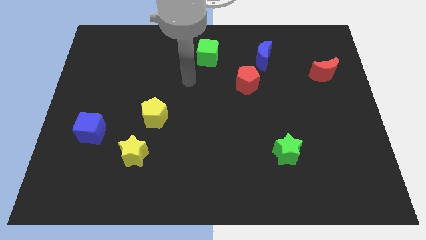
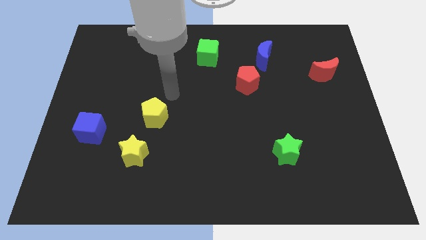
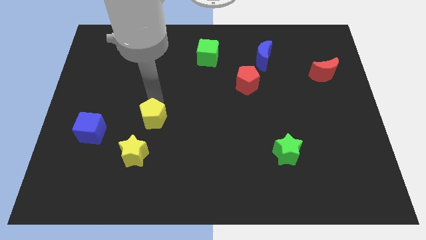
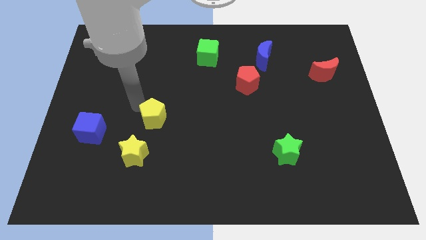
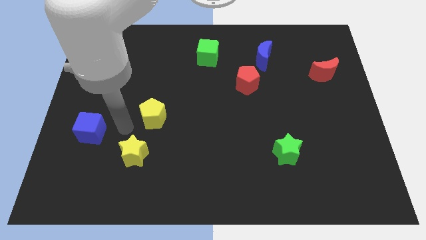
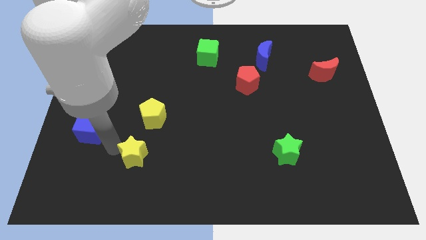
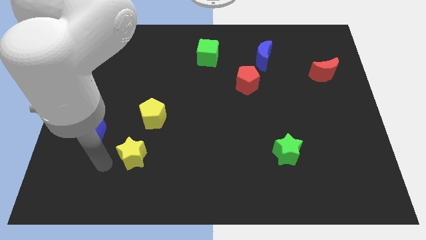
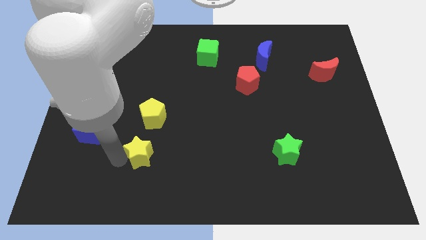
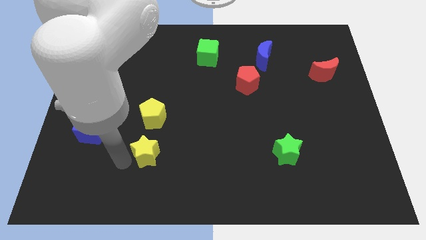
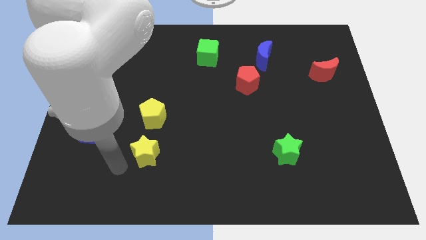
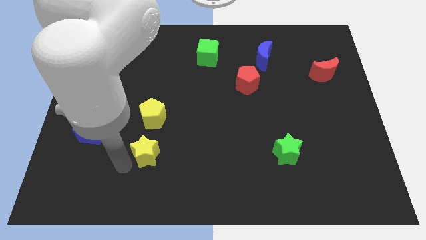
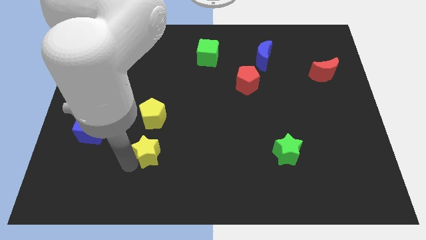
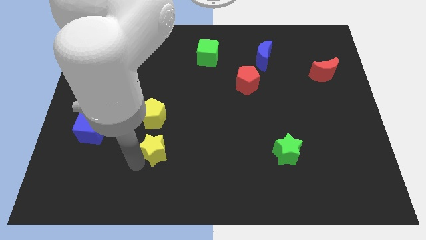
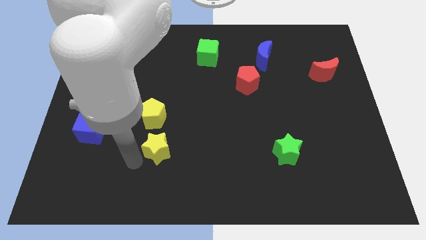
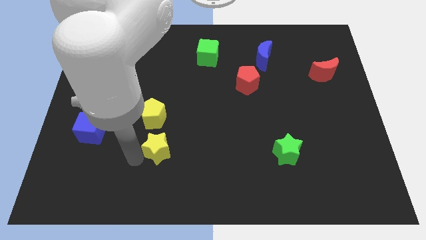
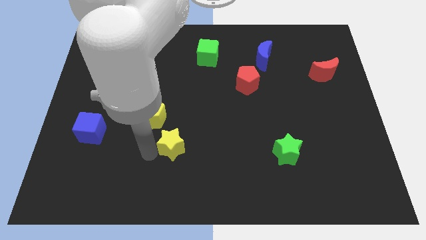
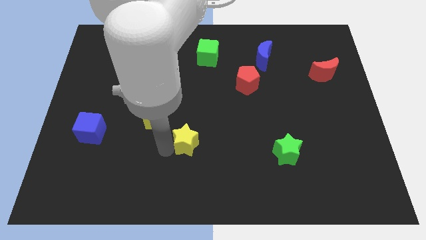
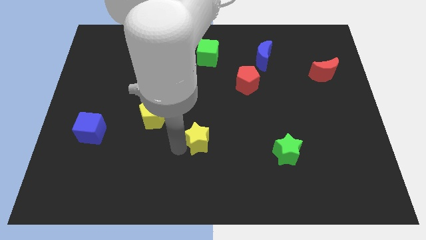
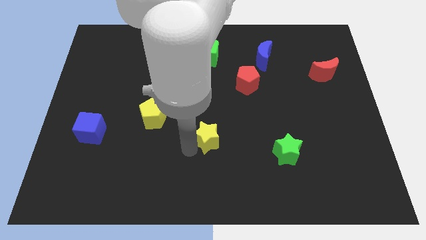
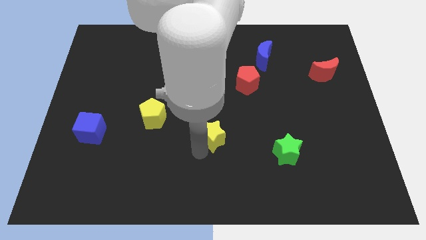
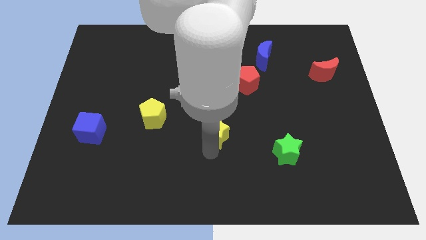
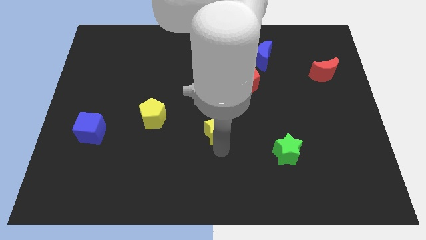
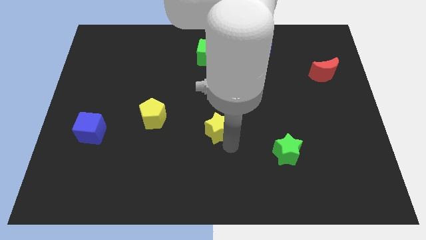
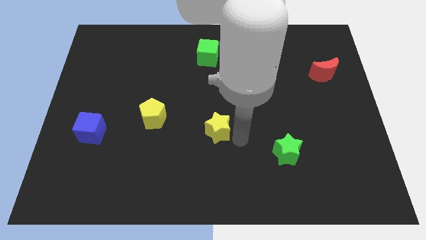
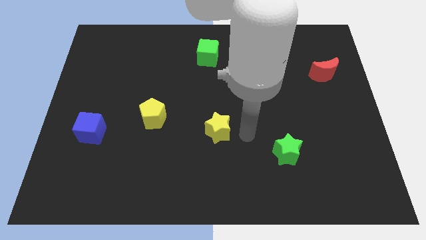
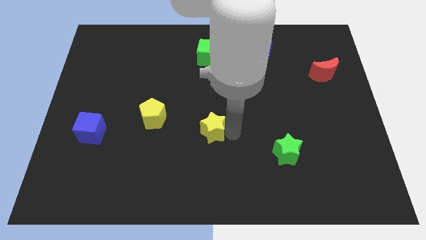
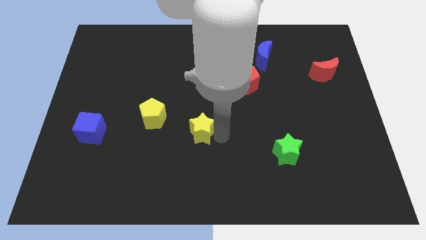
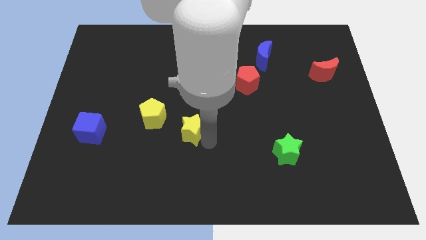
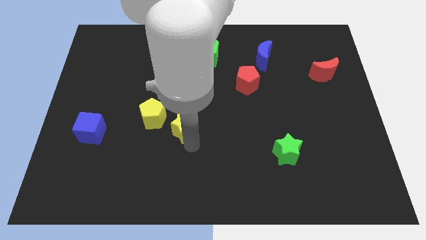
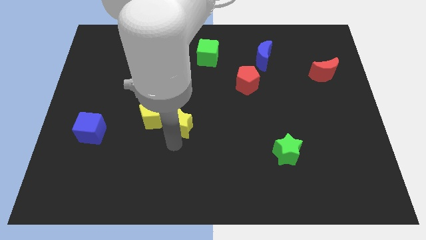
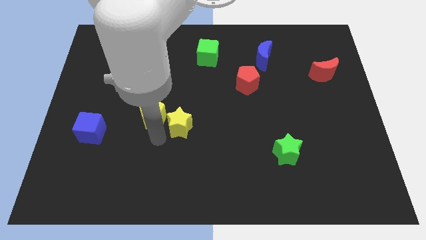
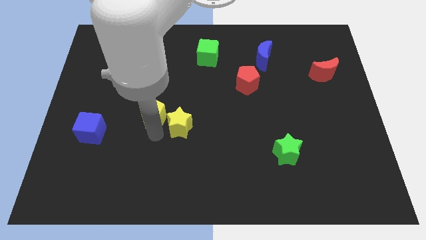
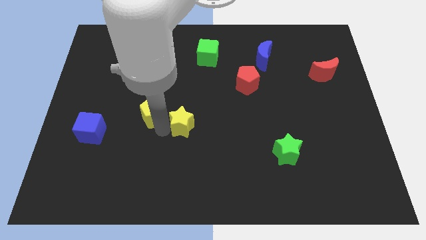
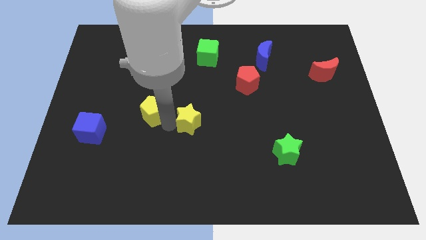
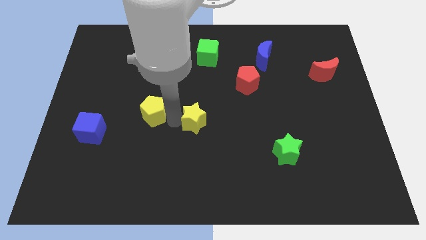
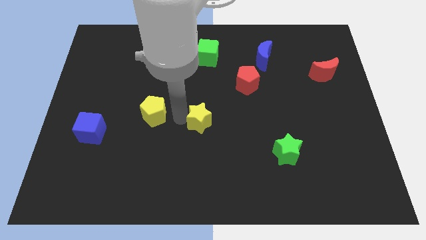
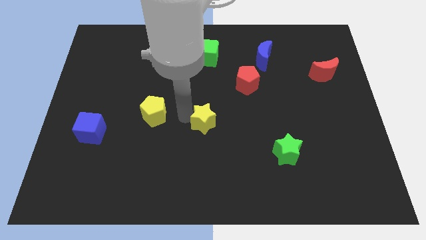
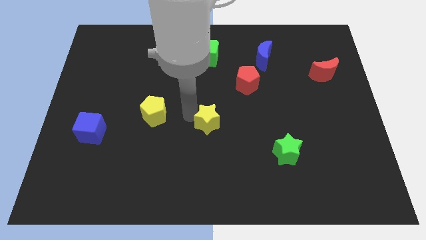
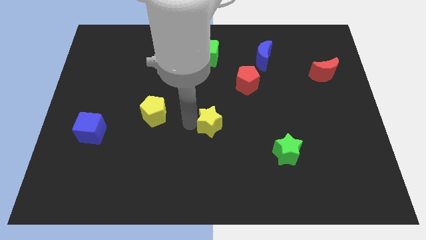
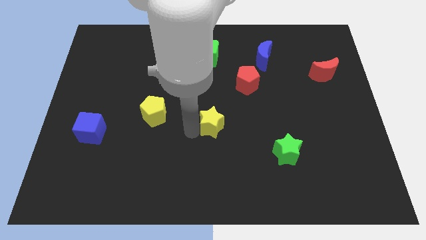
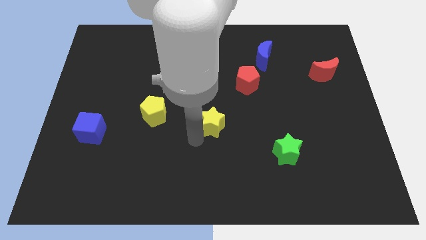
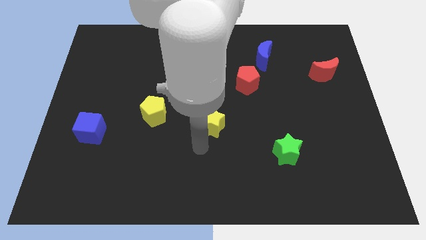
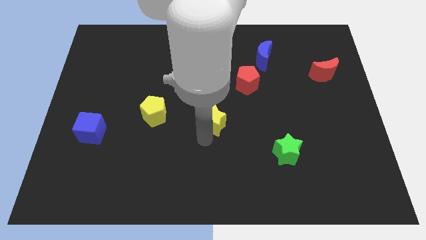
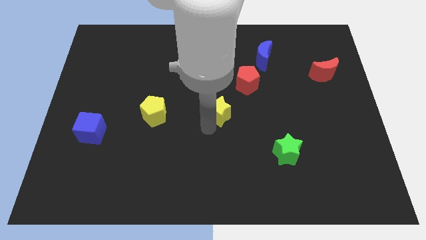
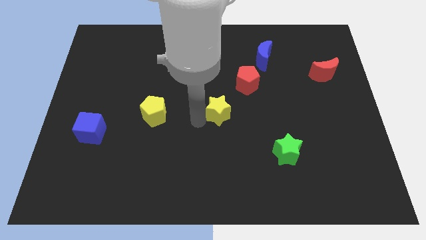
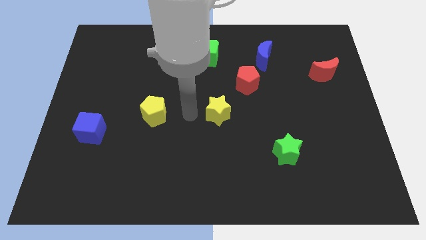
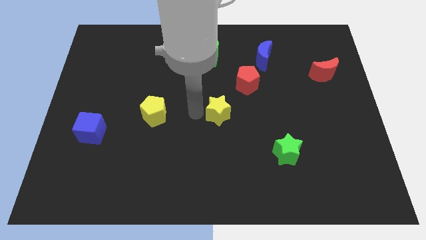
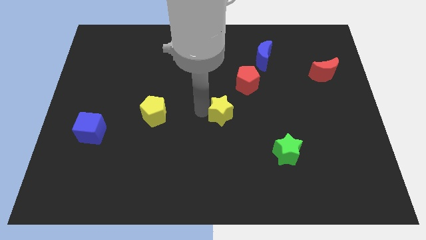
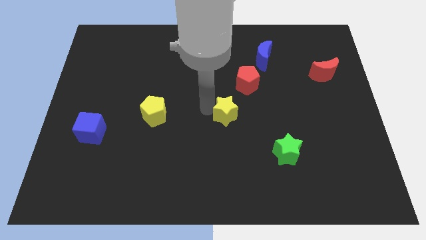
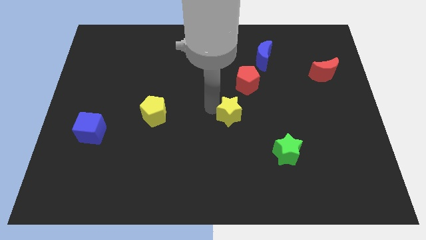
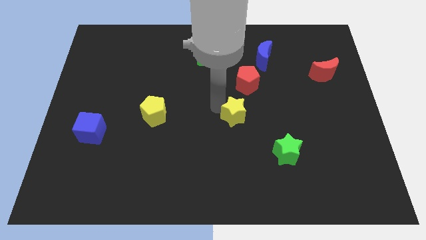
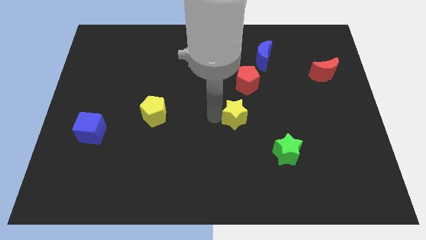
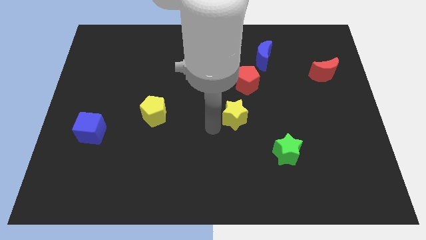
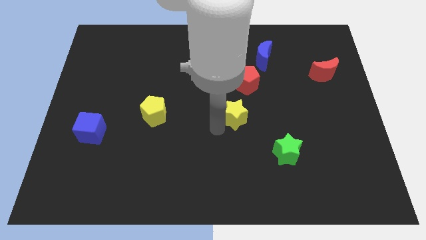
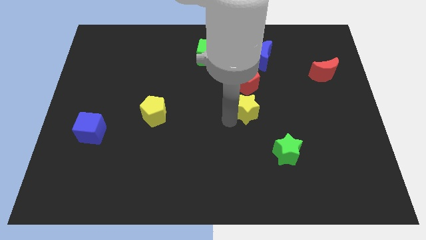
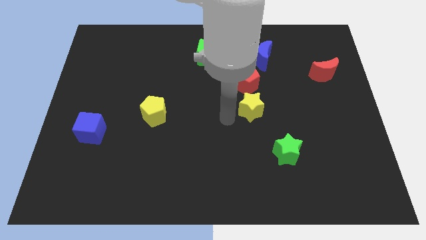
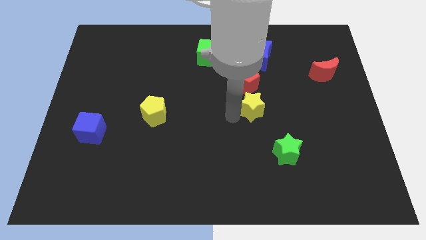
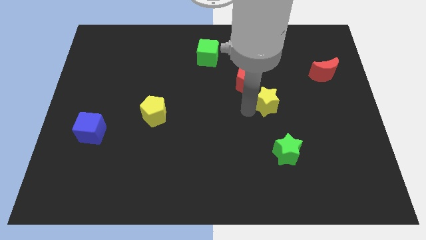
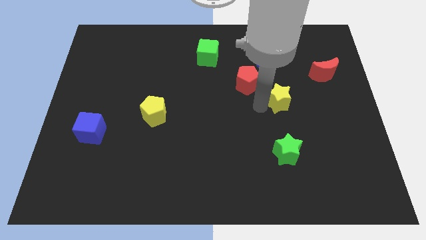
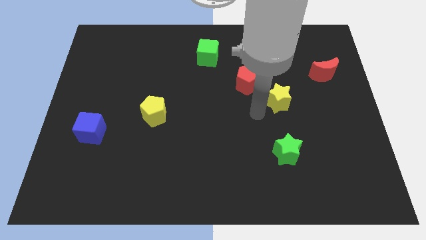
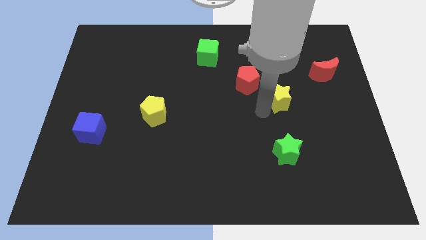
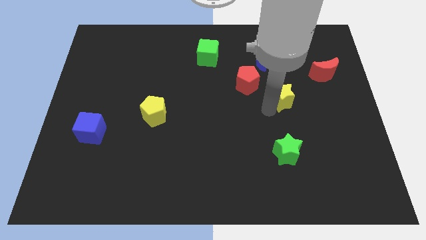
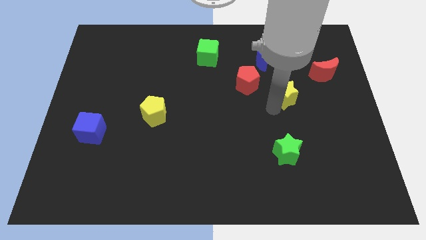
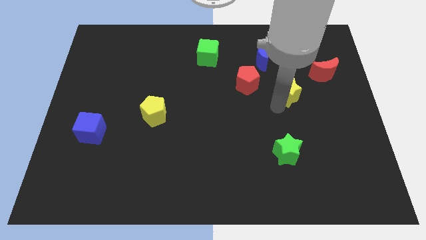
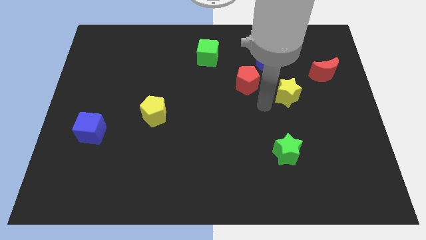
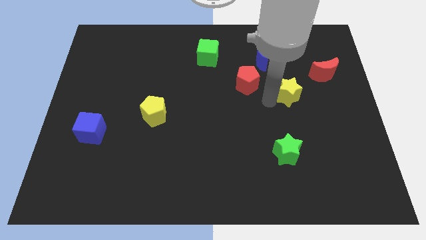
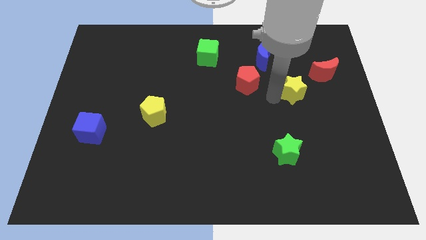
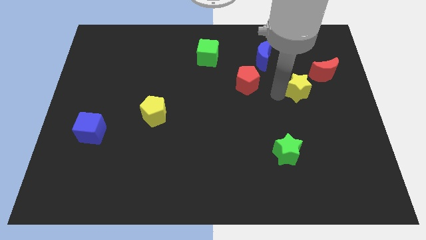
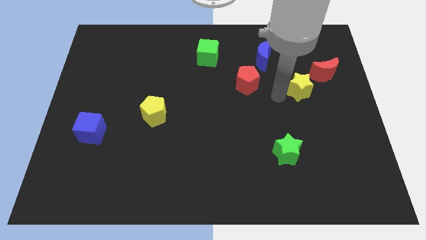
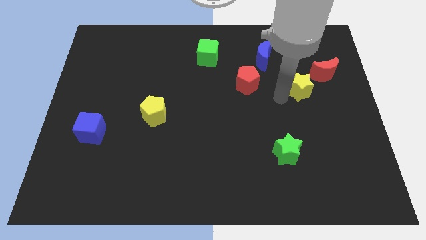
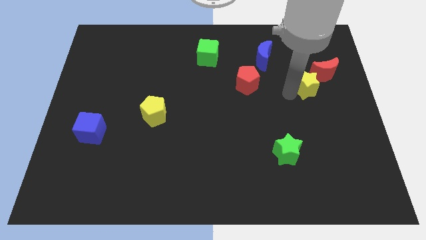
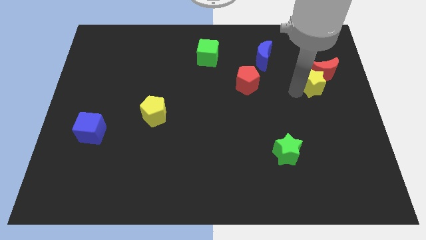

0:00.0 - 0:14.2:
push the yellow star next to the red moon
